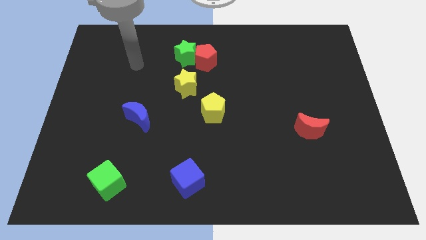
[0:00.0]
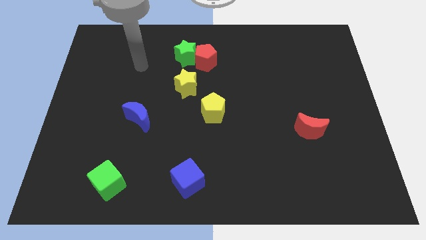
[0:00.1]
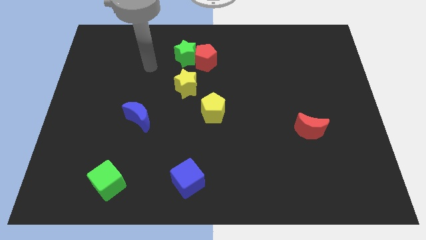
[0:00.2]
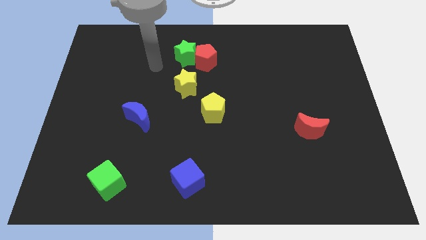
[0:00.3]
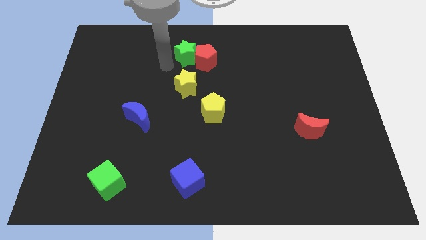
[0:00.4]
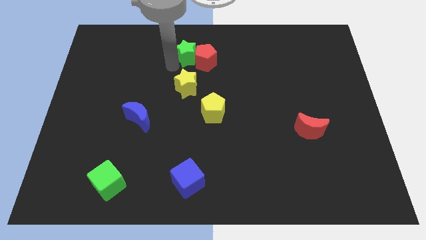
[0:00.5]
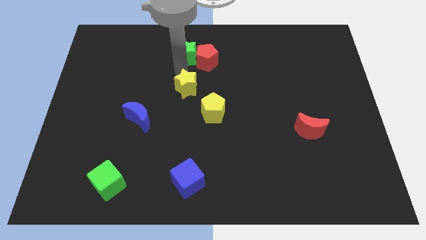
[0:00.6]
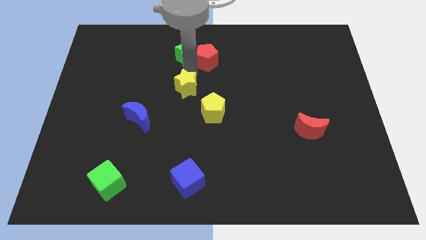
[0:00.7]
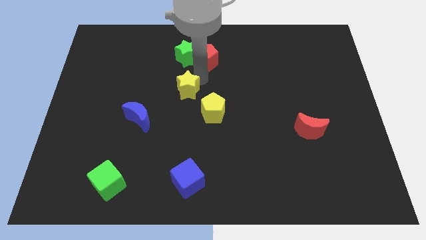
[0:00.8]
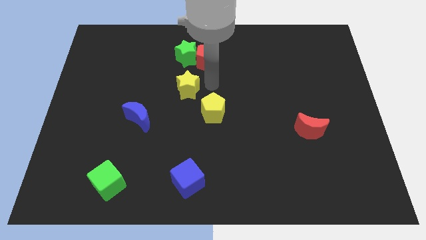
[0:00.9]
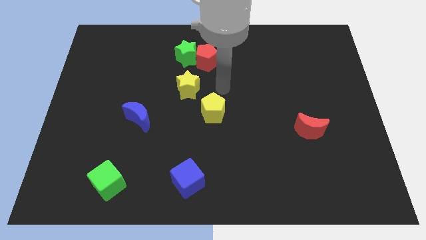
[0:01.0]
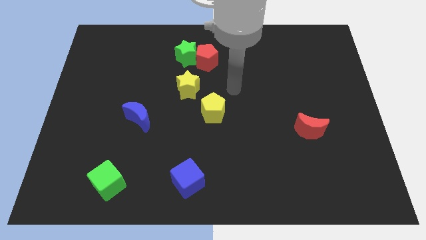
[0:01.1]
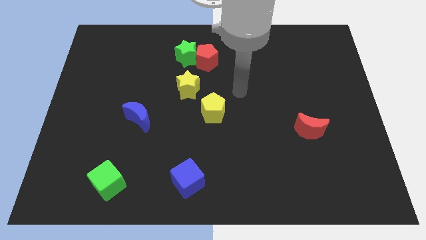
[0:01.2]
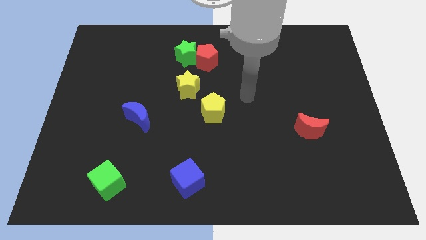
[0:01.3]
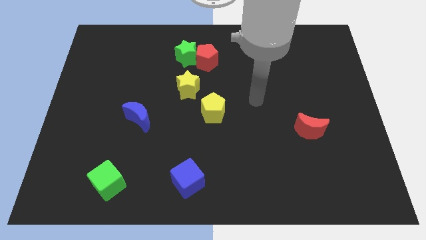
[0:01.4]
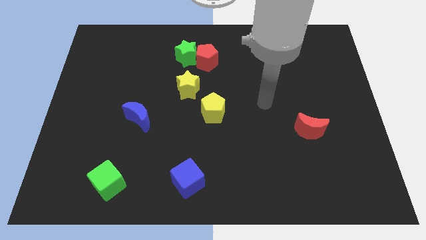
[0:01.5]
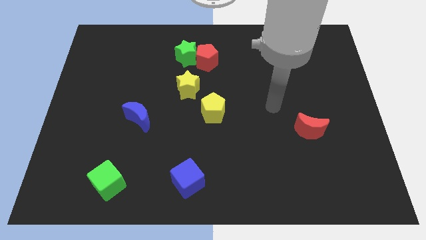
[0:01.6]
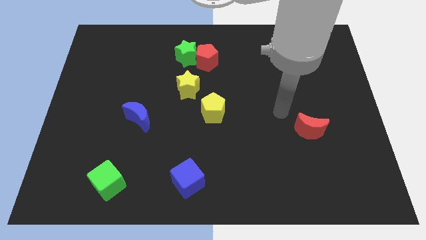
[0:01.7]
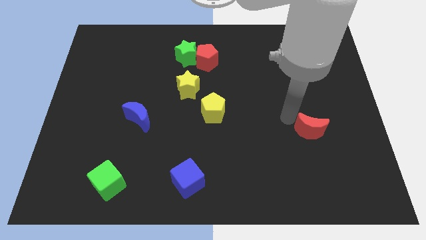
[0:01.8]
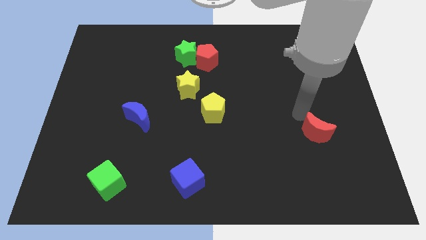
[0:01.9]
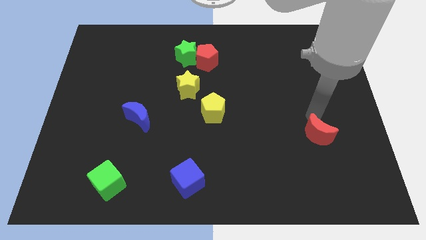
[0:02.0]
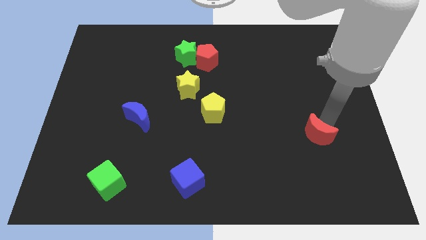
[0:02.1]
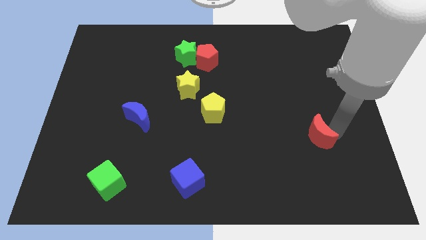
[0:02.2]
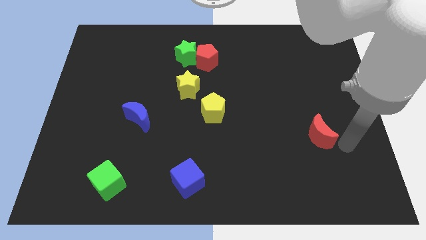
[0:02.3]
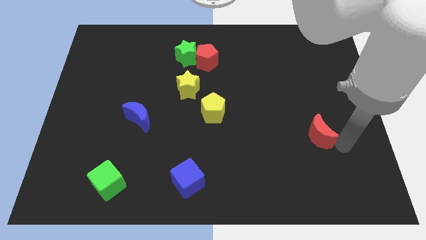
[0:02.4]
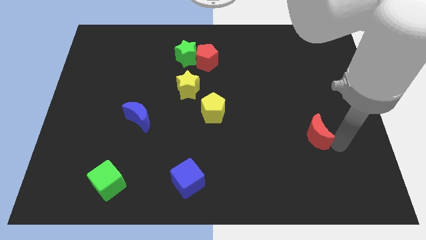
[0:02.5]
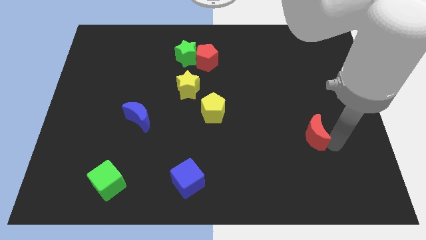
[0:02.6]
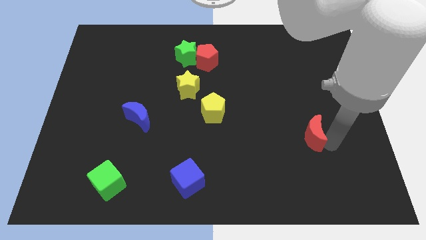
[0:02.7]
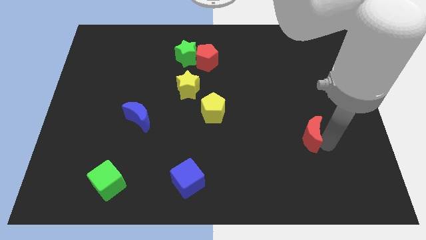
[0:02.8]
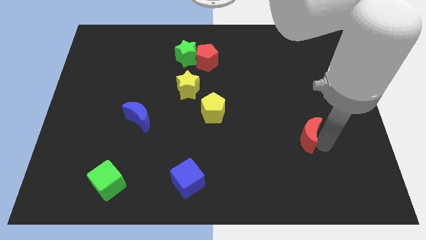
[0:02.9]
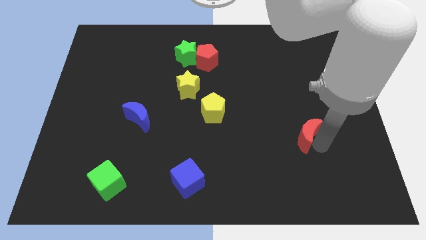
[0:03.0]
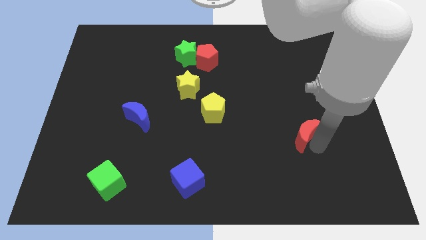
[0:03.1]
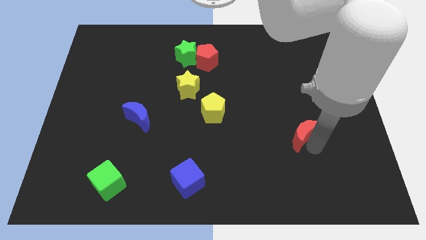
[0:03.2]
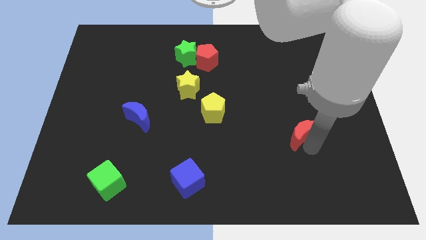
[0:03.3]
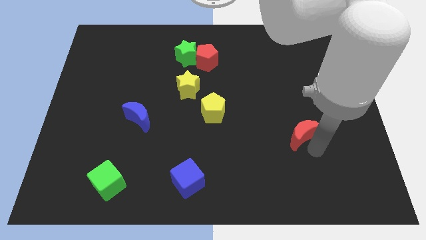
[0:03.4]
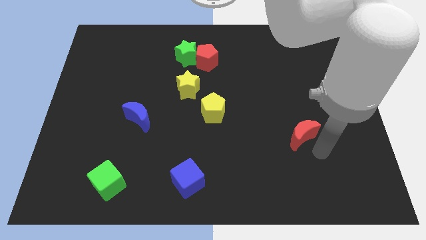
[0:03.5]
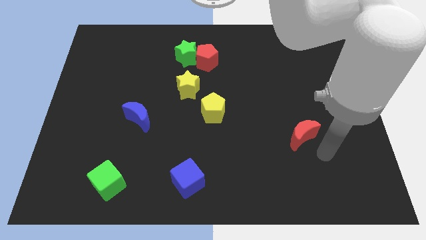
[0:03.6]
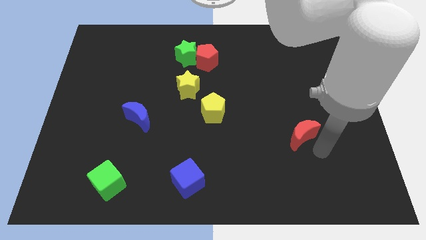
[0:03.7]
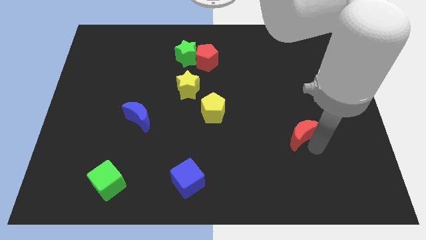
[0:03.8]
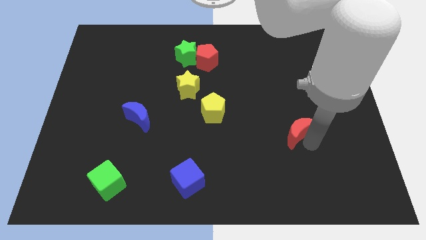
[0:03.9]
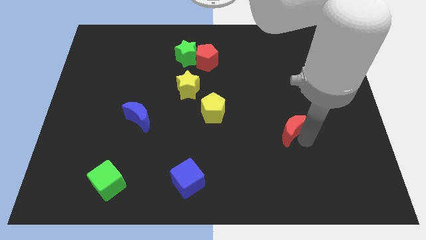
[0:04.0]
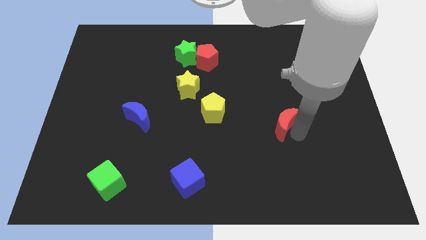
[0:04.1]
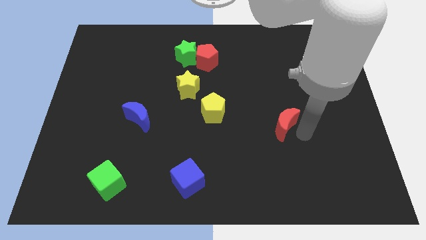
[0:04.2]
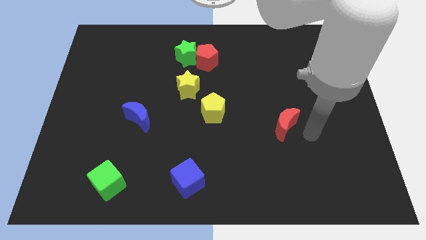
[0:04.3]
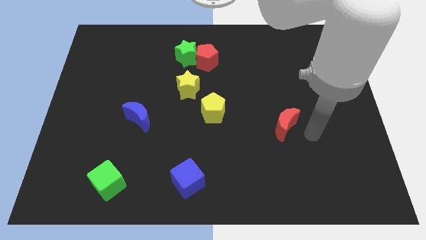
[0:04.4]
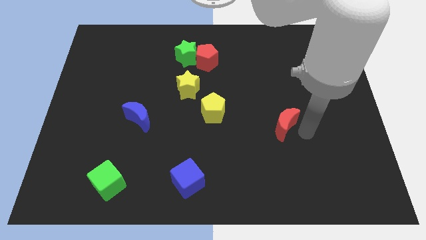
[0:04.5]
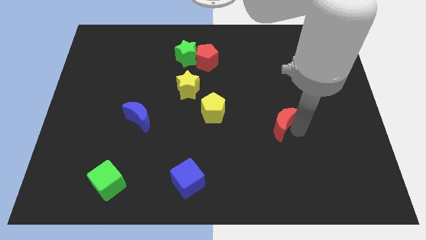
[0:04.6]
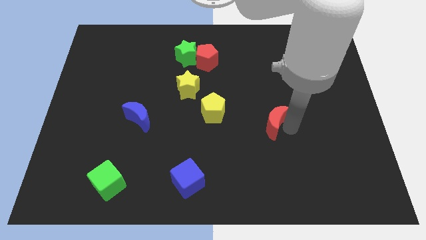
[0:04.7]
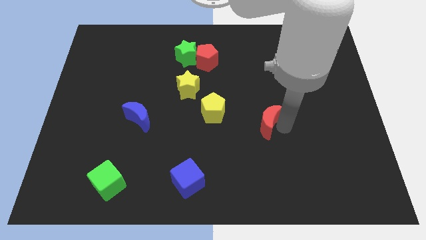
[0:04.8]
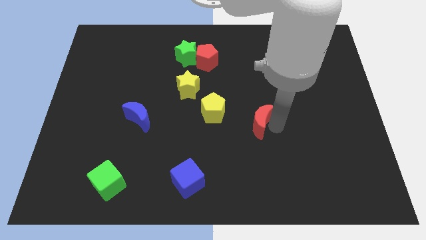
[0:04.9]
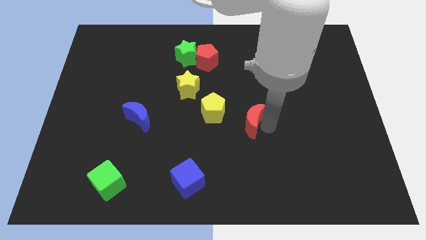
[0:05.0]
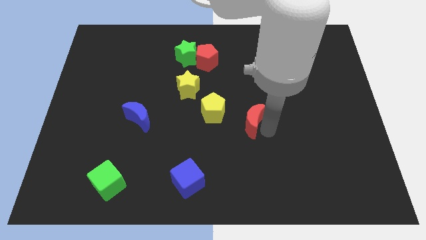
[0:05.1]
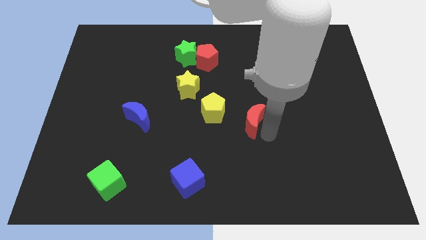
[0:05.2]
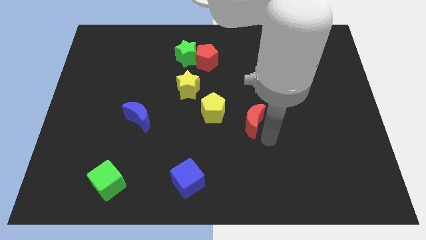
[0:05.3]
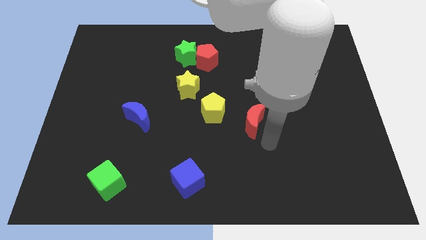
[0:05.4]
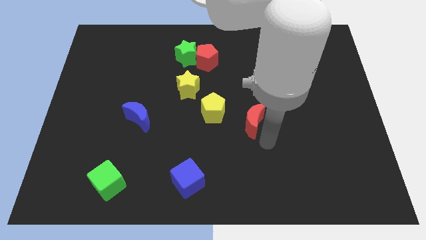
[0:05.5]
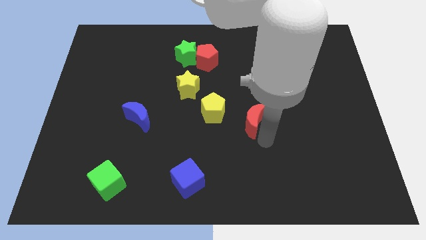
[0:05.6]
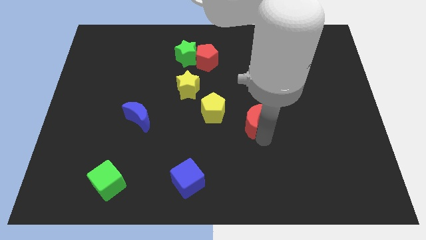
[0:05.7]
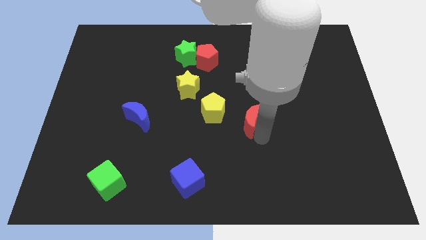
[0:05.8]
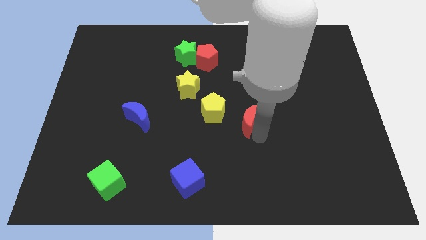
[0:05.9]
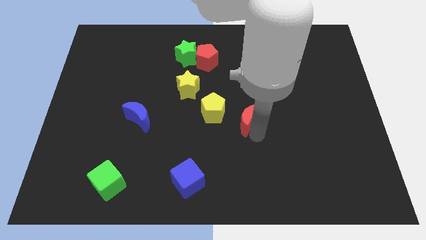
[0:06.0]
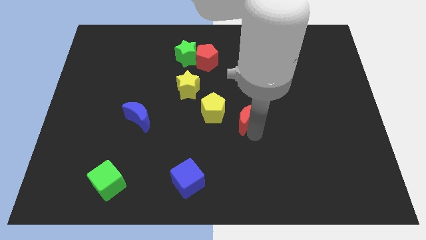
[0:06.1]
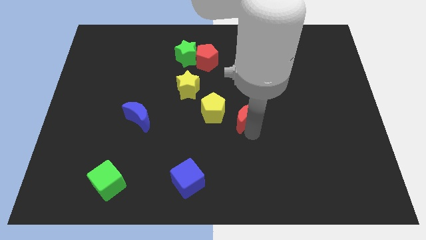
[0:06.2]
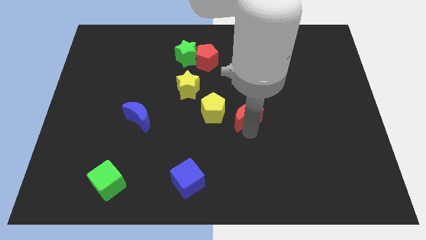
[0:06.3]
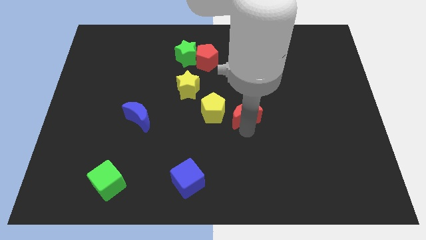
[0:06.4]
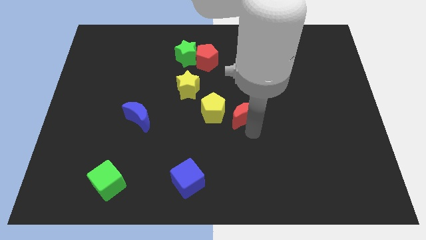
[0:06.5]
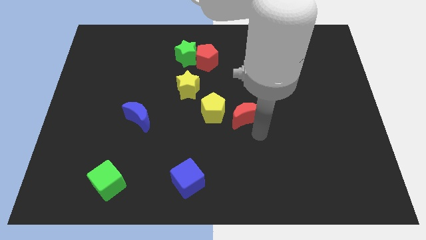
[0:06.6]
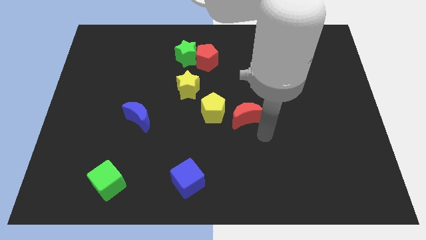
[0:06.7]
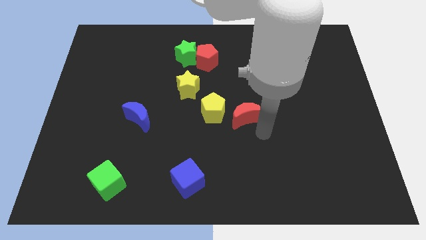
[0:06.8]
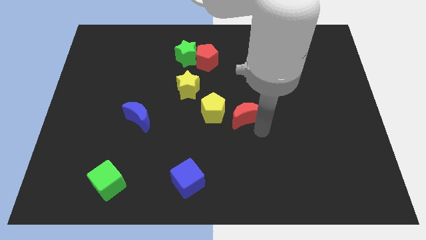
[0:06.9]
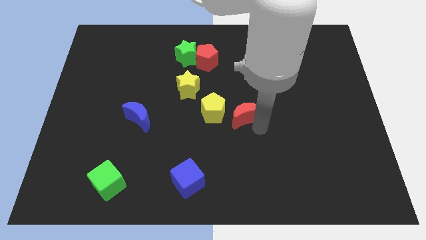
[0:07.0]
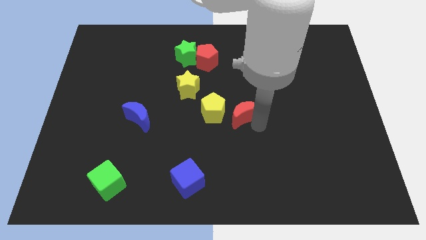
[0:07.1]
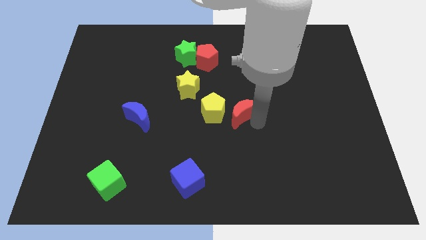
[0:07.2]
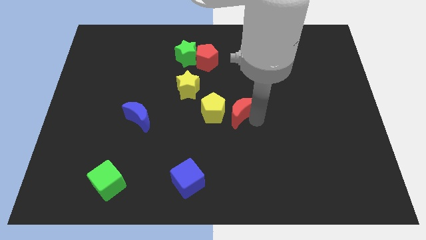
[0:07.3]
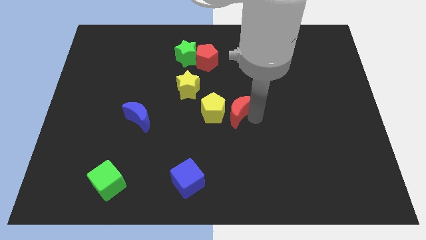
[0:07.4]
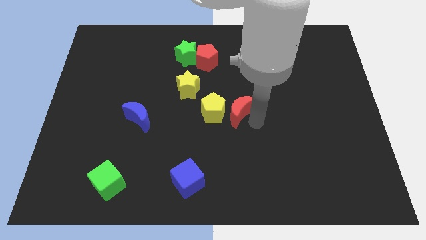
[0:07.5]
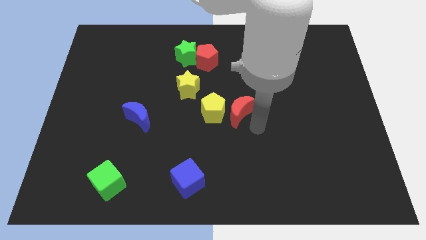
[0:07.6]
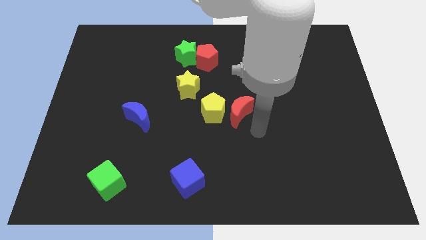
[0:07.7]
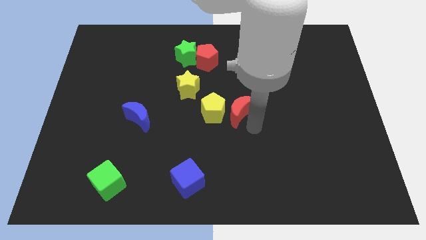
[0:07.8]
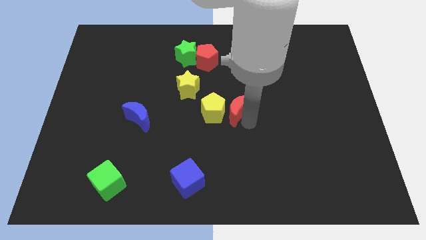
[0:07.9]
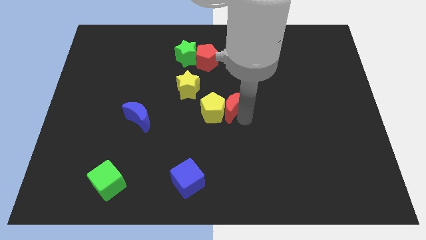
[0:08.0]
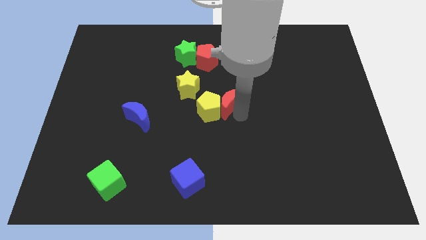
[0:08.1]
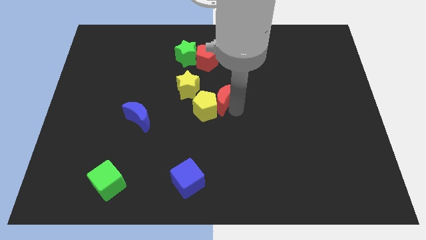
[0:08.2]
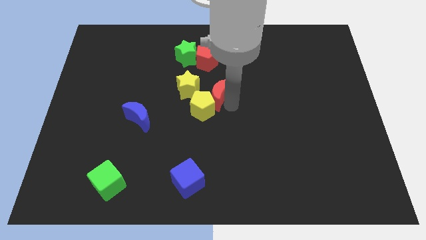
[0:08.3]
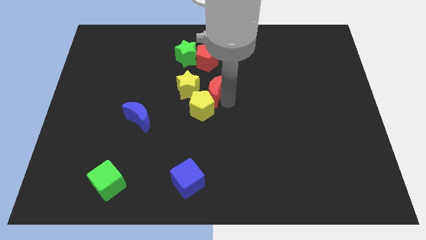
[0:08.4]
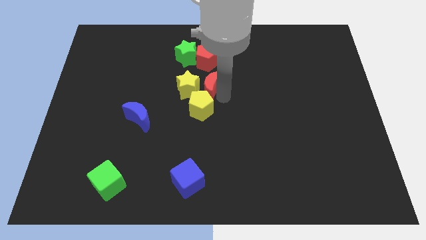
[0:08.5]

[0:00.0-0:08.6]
slide the red moon next to the yellow star
